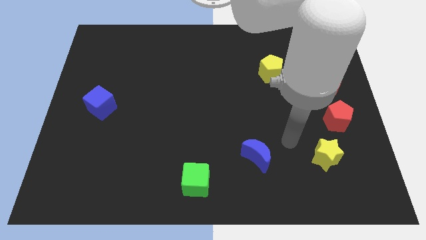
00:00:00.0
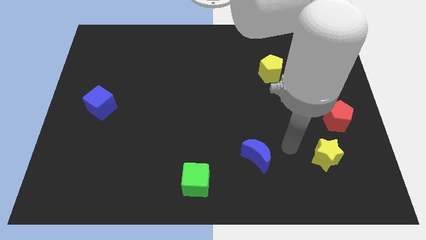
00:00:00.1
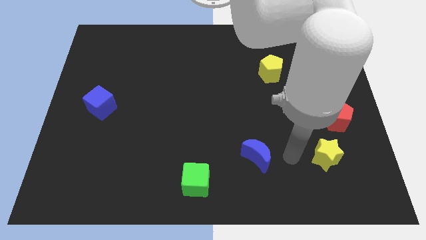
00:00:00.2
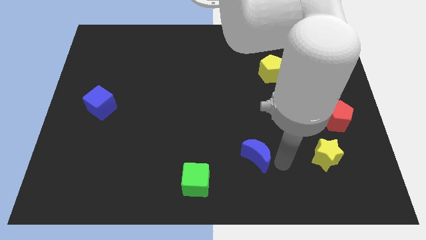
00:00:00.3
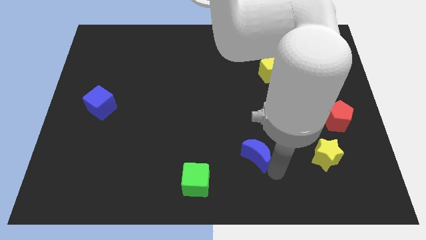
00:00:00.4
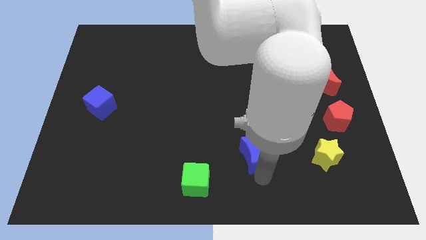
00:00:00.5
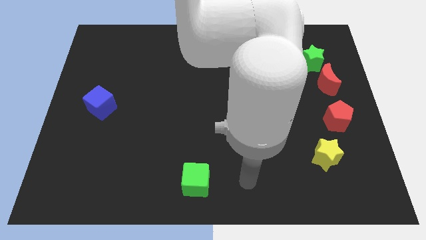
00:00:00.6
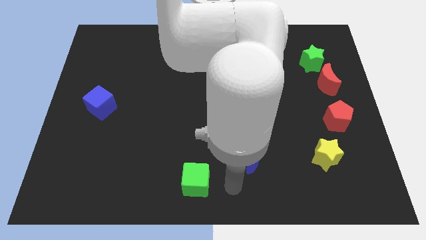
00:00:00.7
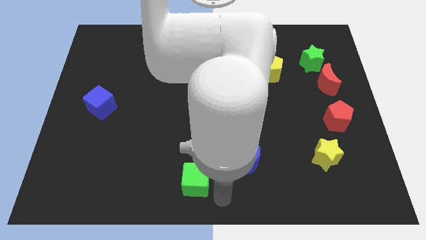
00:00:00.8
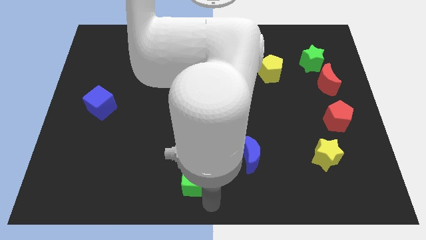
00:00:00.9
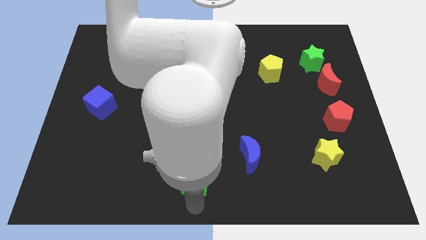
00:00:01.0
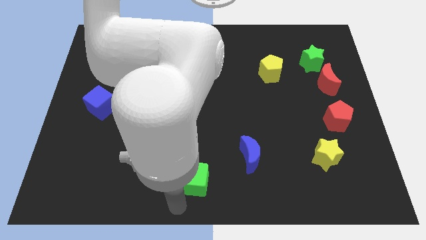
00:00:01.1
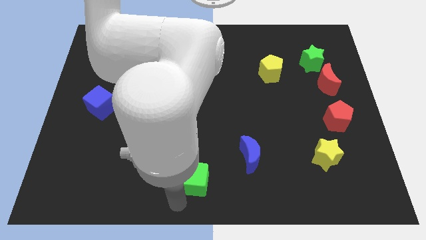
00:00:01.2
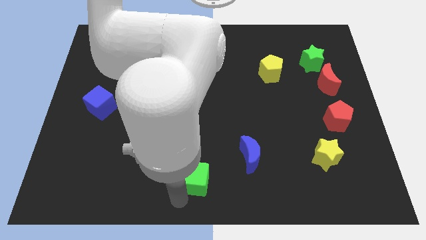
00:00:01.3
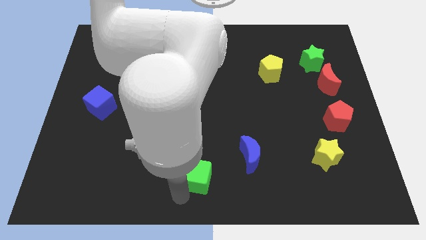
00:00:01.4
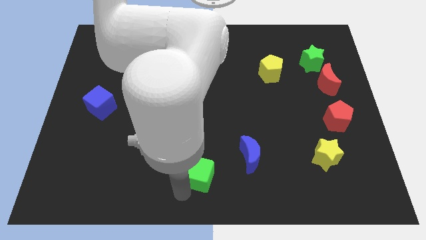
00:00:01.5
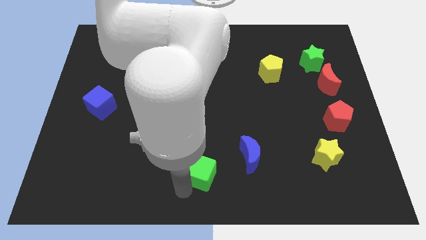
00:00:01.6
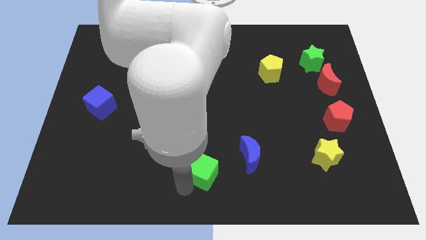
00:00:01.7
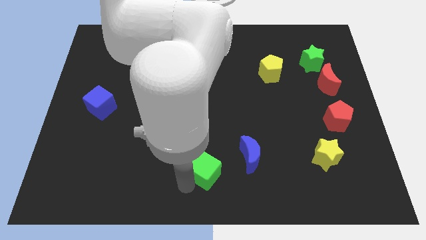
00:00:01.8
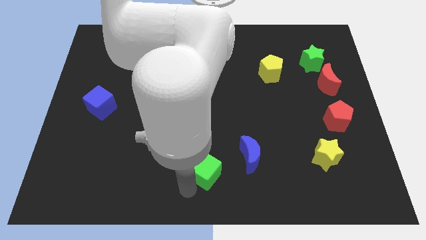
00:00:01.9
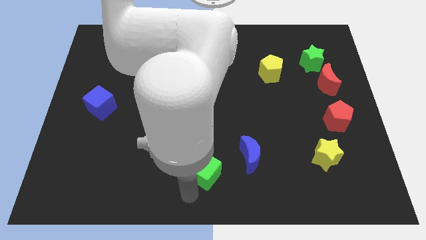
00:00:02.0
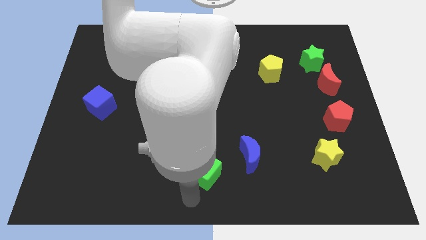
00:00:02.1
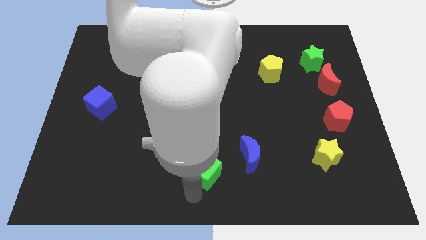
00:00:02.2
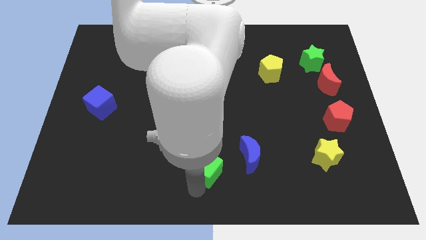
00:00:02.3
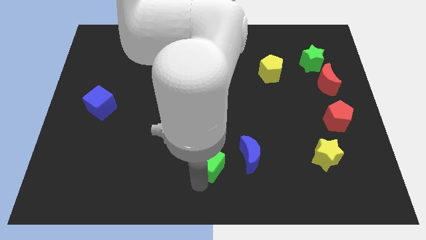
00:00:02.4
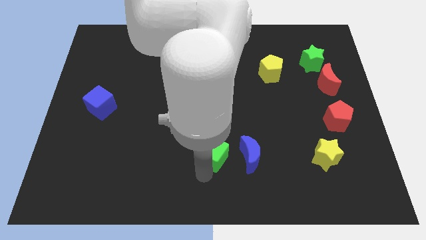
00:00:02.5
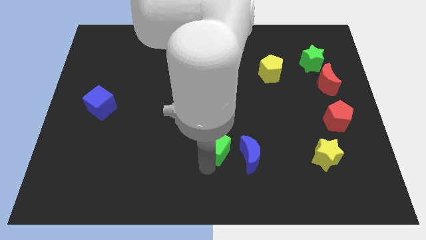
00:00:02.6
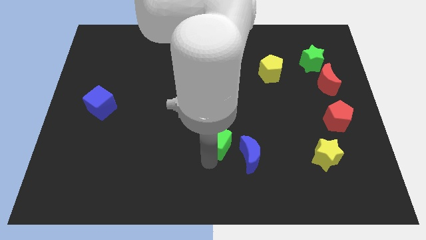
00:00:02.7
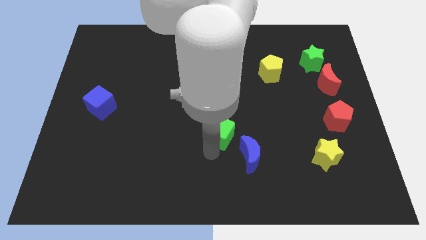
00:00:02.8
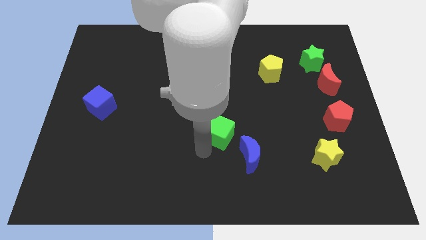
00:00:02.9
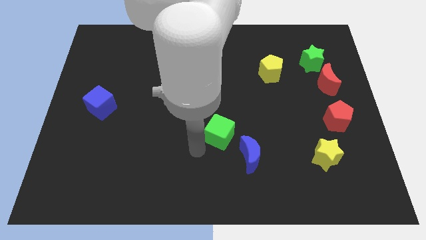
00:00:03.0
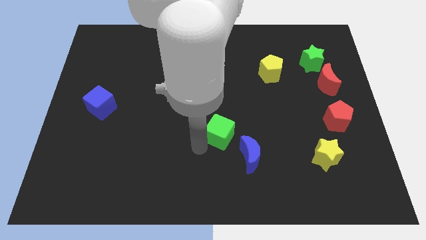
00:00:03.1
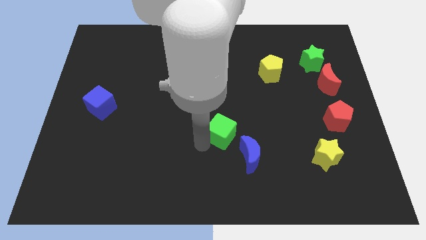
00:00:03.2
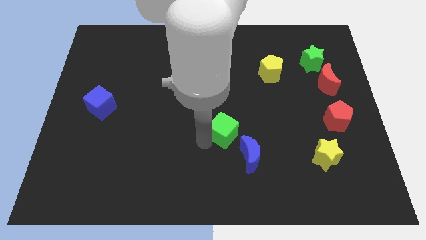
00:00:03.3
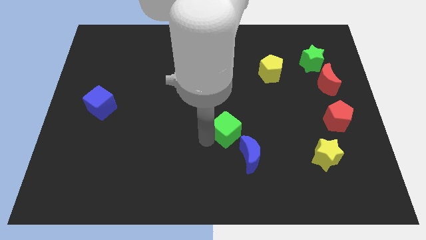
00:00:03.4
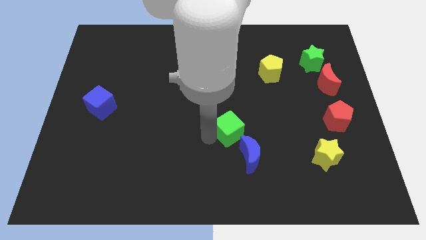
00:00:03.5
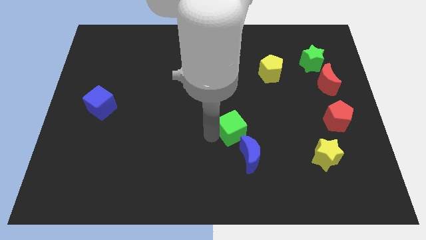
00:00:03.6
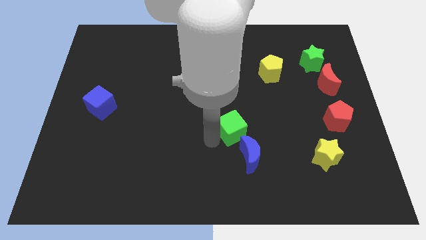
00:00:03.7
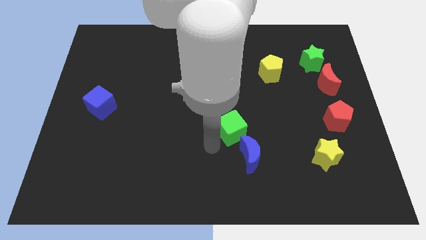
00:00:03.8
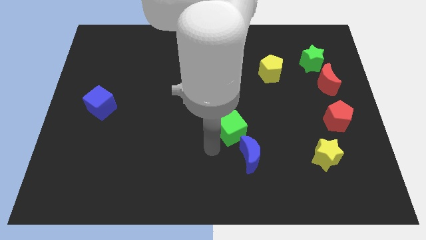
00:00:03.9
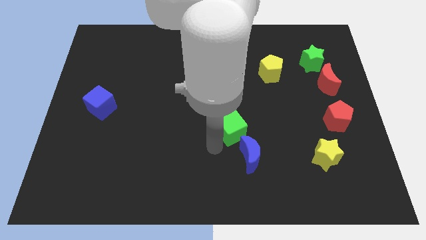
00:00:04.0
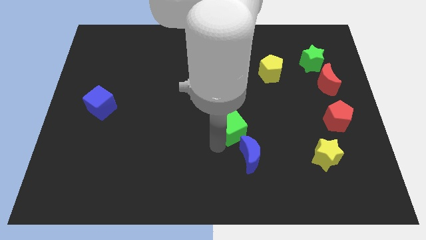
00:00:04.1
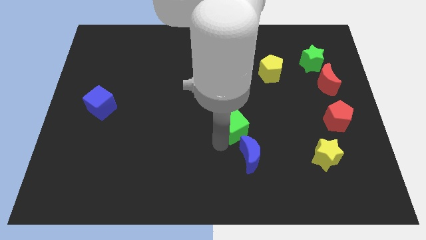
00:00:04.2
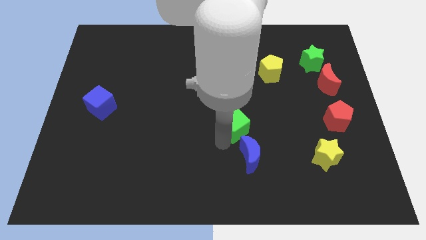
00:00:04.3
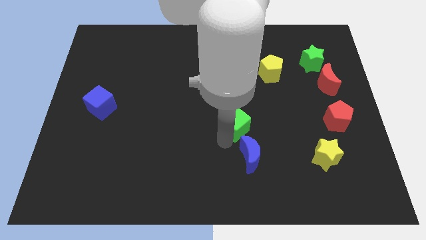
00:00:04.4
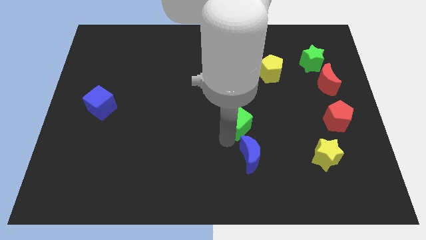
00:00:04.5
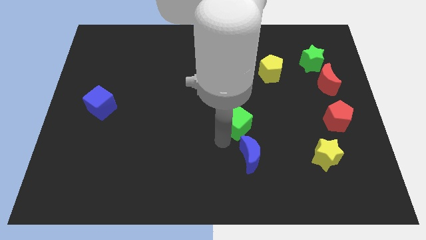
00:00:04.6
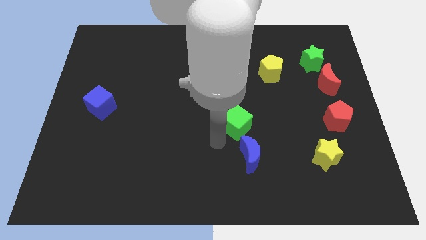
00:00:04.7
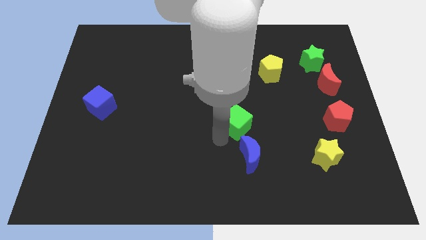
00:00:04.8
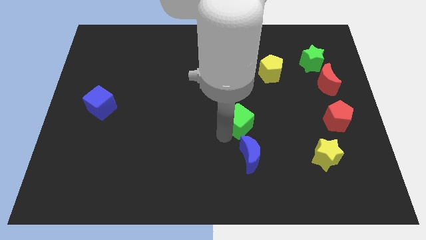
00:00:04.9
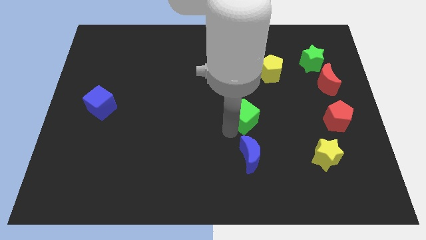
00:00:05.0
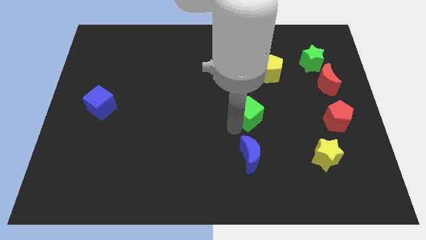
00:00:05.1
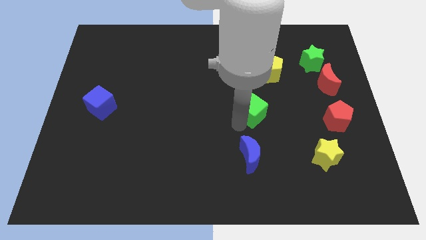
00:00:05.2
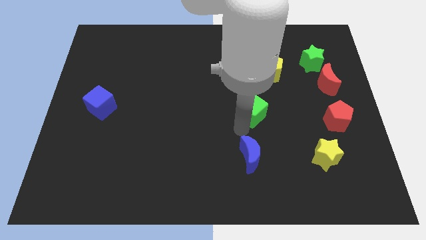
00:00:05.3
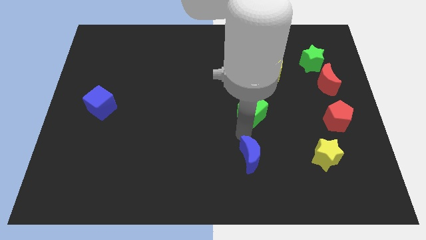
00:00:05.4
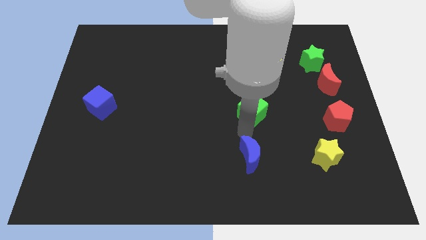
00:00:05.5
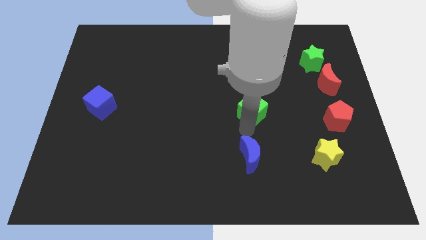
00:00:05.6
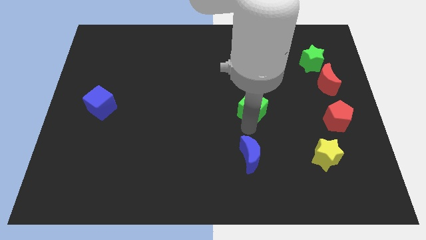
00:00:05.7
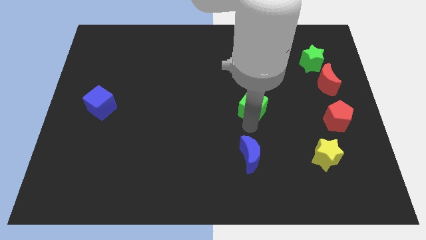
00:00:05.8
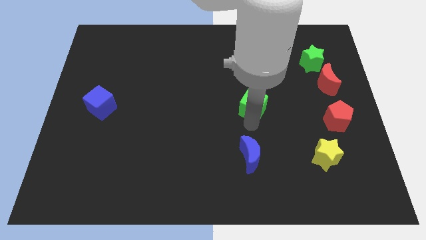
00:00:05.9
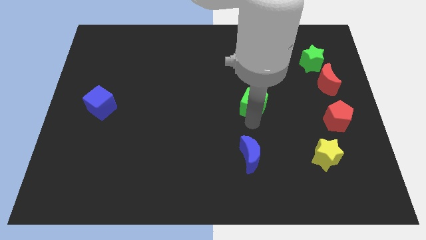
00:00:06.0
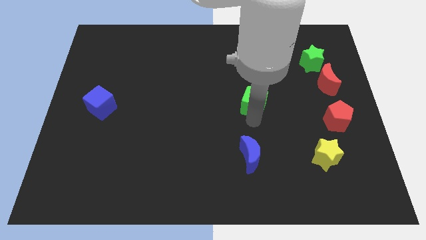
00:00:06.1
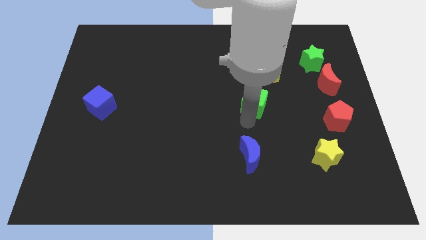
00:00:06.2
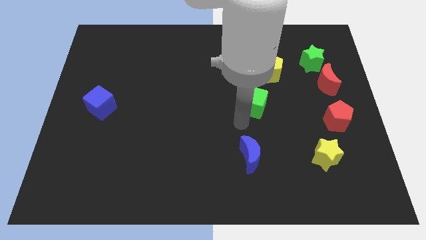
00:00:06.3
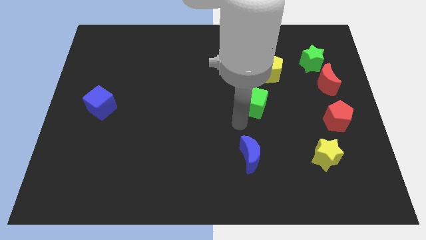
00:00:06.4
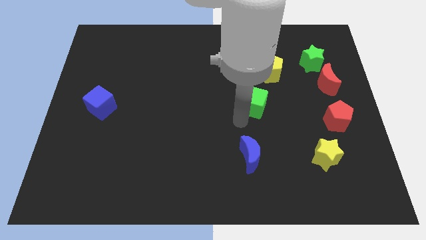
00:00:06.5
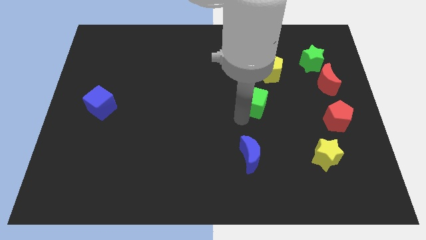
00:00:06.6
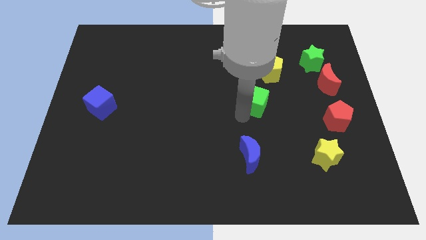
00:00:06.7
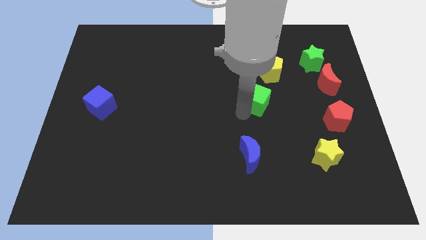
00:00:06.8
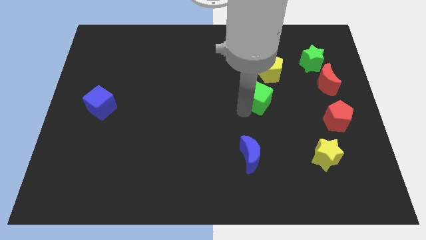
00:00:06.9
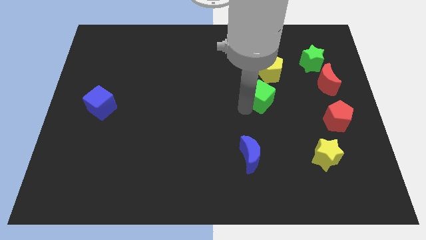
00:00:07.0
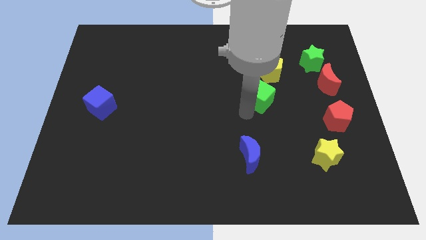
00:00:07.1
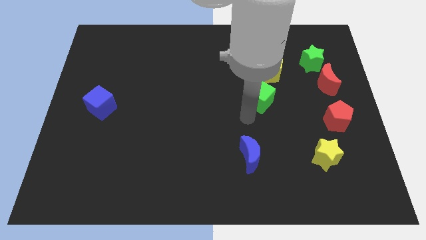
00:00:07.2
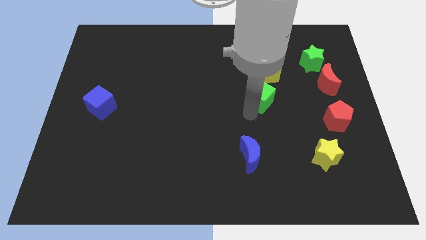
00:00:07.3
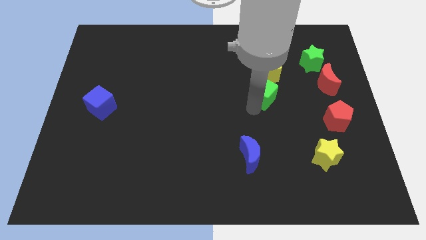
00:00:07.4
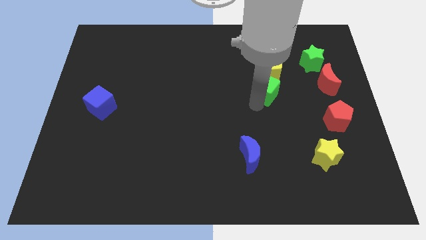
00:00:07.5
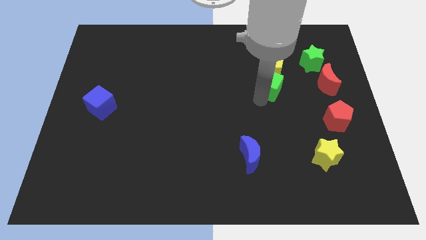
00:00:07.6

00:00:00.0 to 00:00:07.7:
move the green cube to the yellow pentagon
